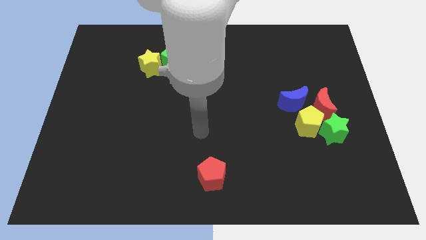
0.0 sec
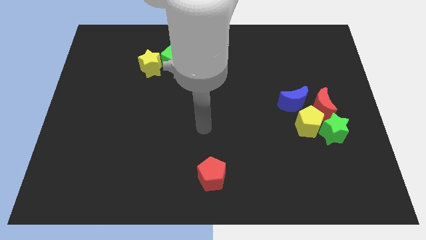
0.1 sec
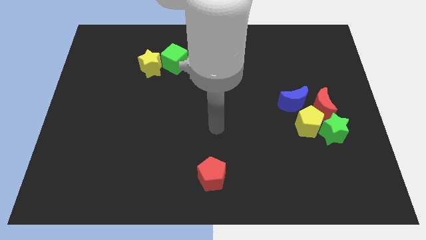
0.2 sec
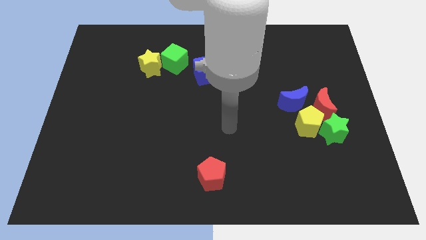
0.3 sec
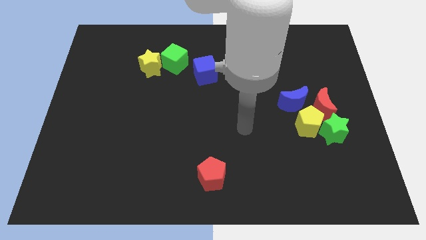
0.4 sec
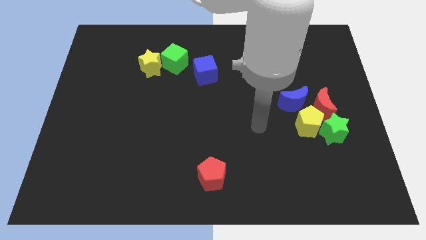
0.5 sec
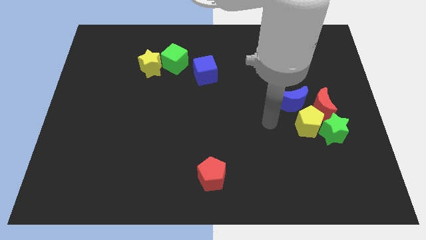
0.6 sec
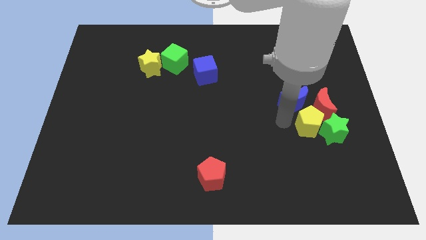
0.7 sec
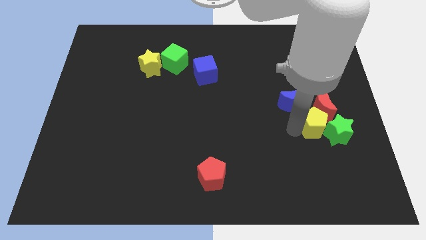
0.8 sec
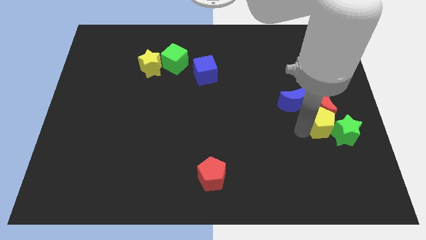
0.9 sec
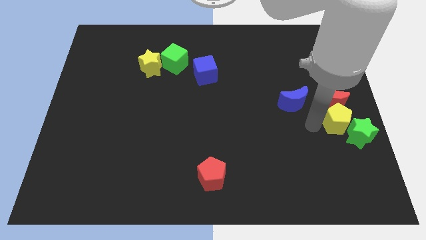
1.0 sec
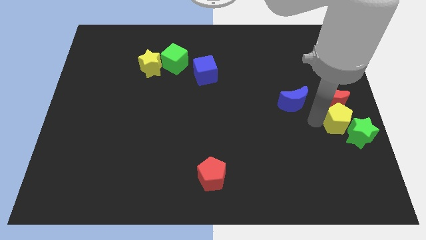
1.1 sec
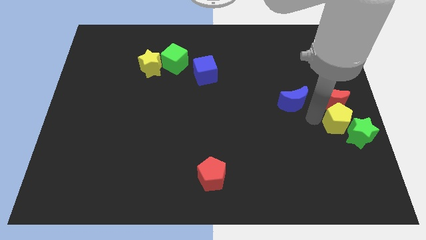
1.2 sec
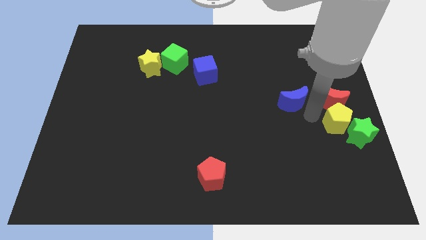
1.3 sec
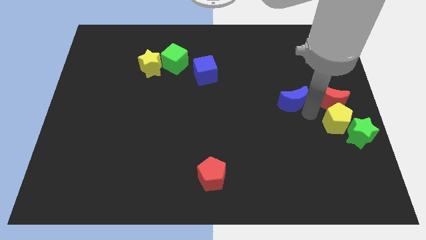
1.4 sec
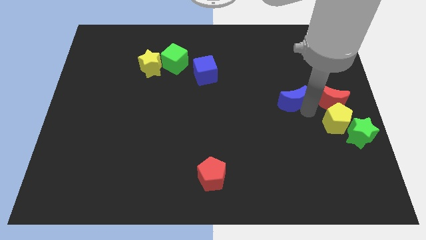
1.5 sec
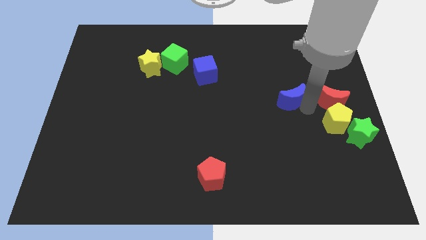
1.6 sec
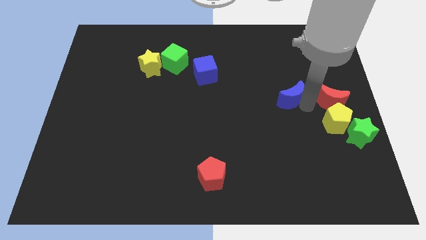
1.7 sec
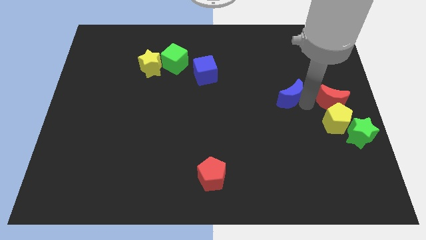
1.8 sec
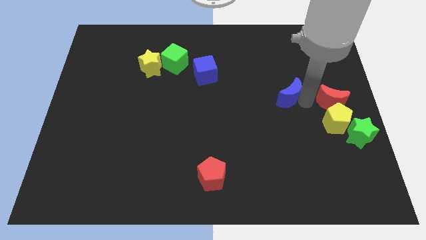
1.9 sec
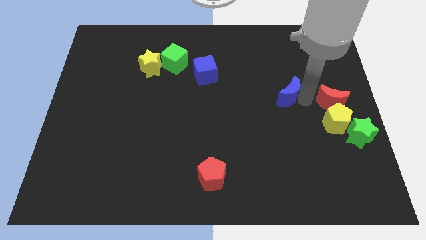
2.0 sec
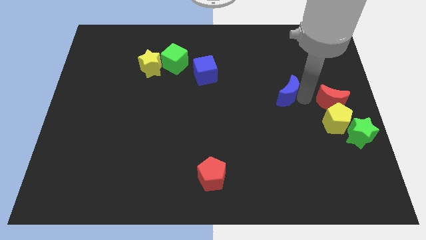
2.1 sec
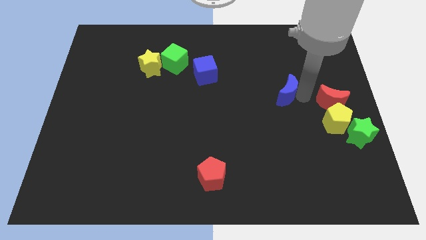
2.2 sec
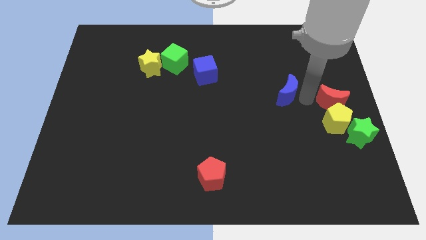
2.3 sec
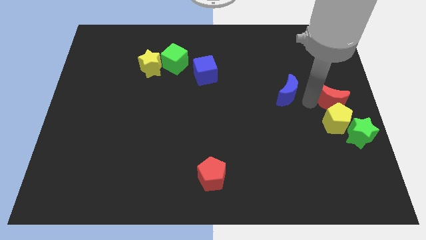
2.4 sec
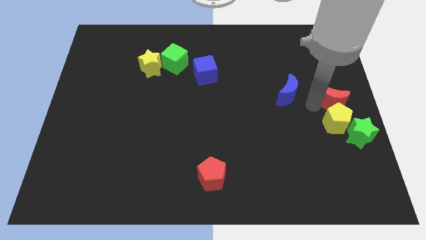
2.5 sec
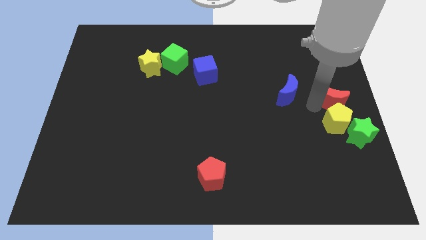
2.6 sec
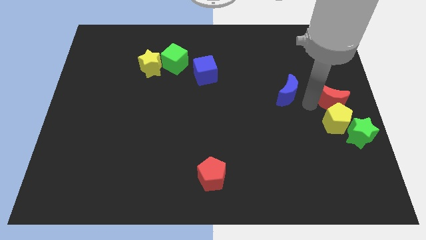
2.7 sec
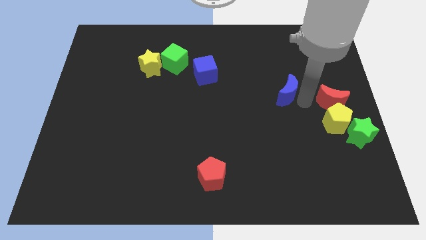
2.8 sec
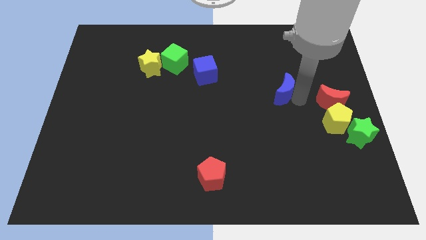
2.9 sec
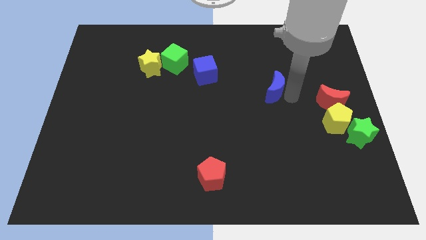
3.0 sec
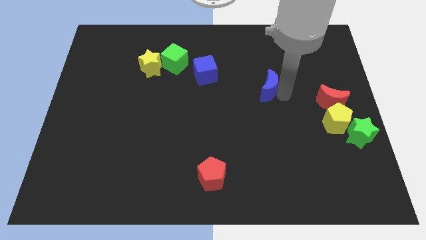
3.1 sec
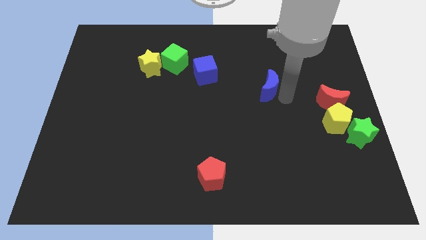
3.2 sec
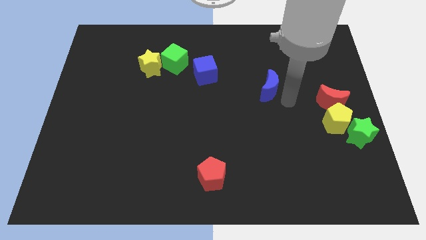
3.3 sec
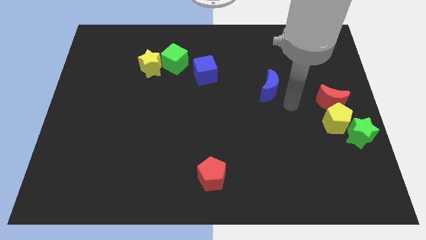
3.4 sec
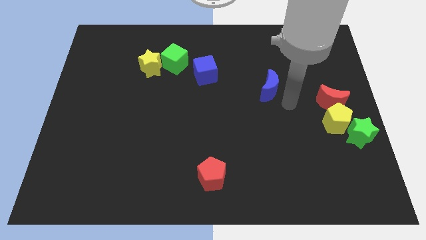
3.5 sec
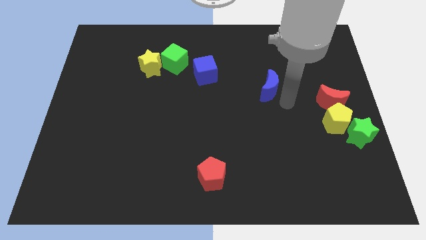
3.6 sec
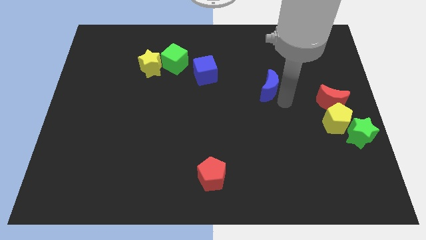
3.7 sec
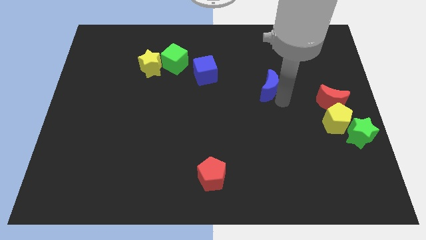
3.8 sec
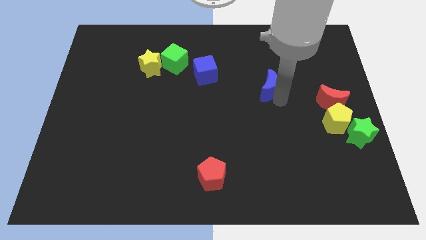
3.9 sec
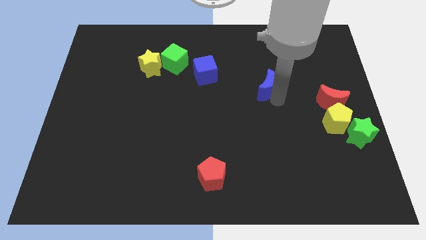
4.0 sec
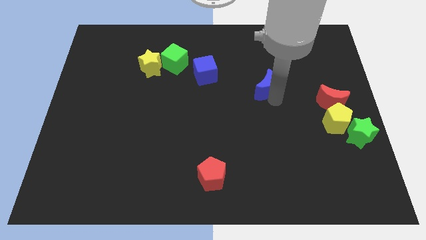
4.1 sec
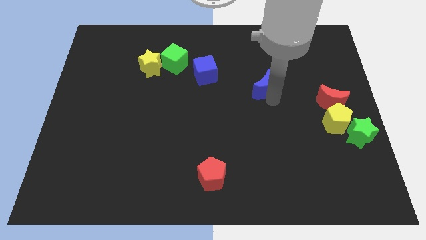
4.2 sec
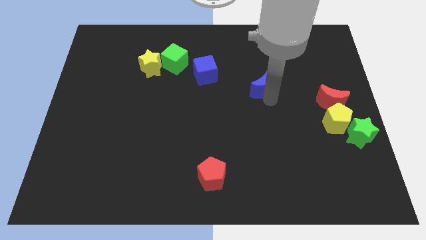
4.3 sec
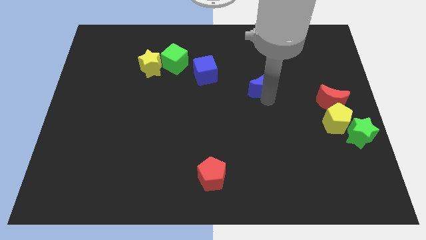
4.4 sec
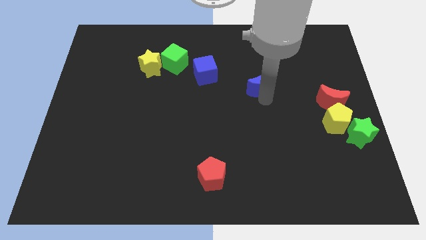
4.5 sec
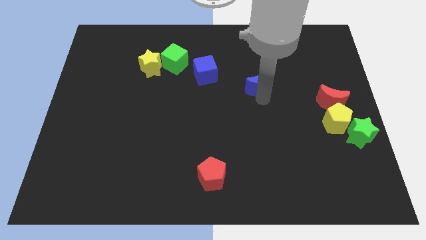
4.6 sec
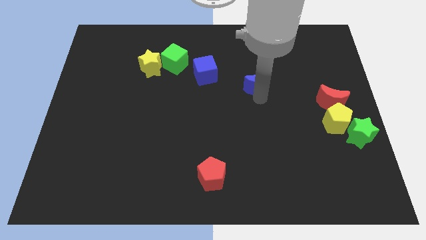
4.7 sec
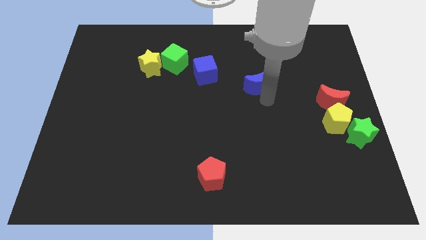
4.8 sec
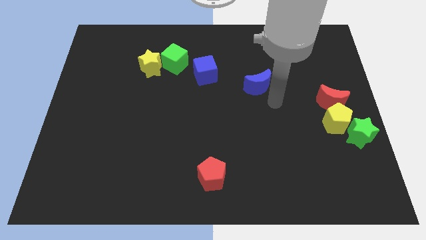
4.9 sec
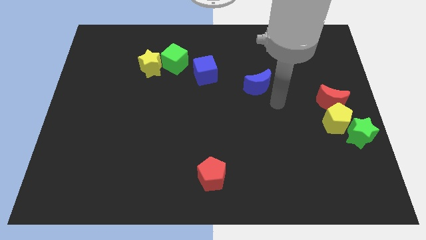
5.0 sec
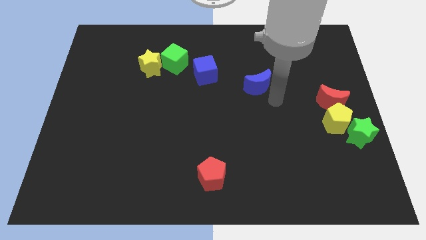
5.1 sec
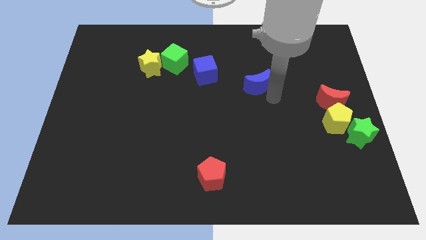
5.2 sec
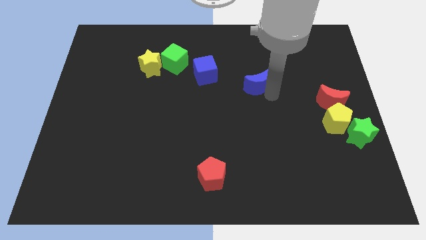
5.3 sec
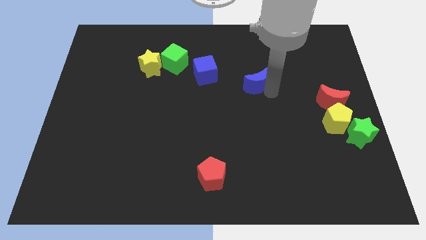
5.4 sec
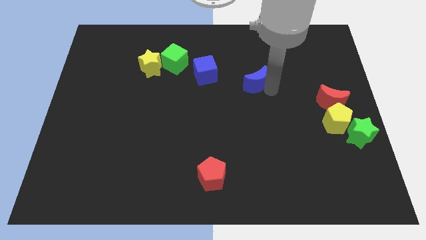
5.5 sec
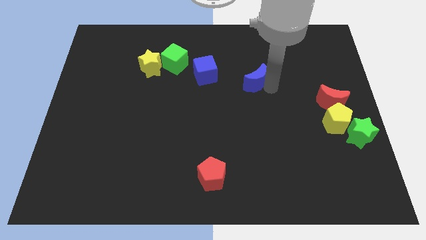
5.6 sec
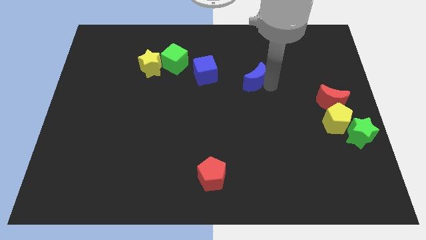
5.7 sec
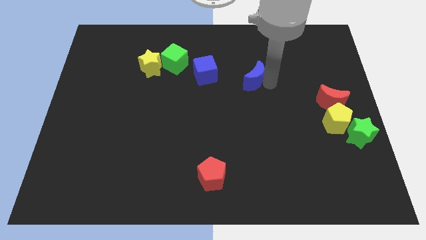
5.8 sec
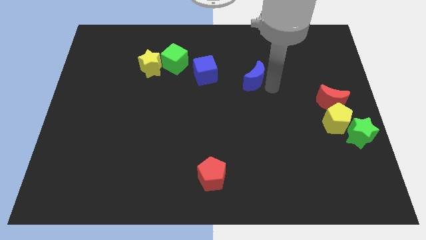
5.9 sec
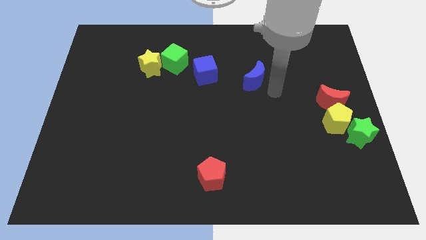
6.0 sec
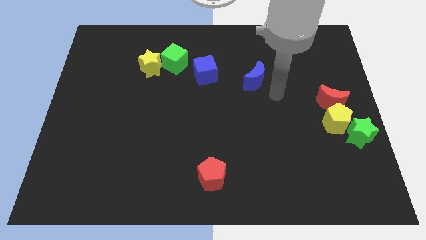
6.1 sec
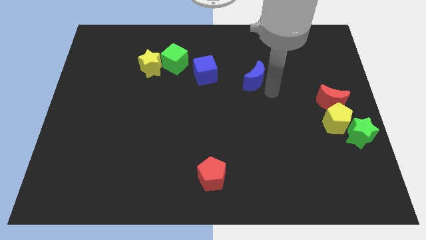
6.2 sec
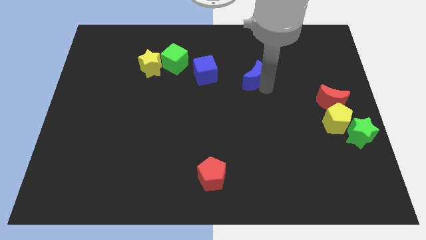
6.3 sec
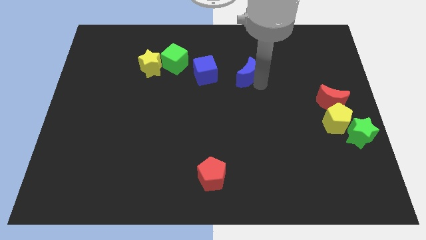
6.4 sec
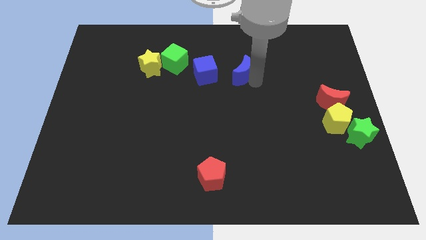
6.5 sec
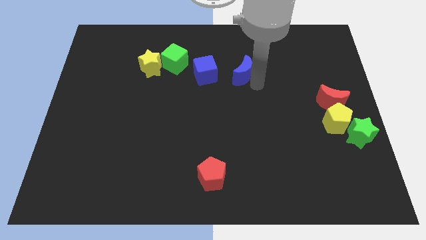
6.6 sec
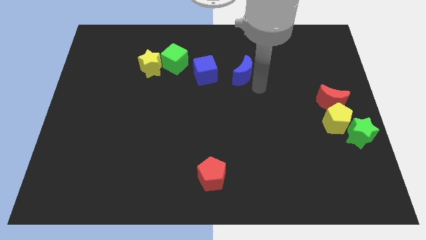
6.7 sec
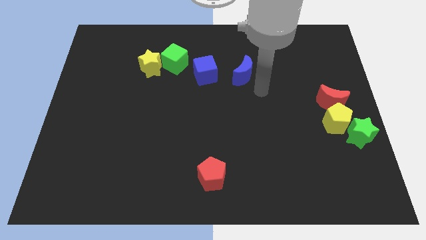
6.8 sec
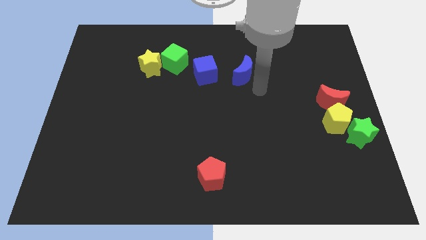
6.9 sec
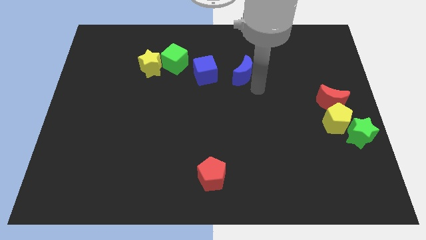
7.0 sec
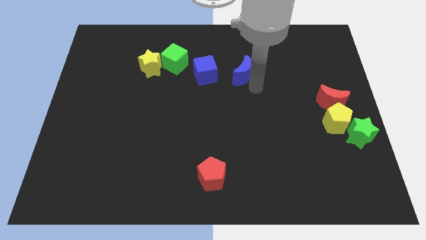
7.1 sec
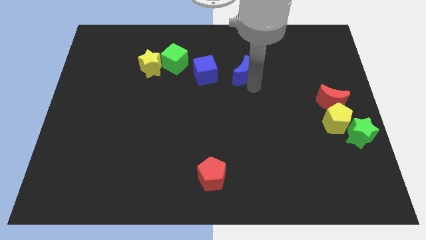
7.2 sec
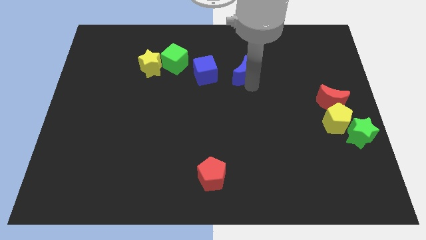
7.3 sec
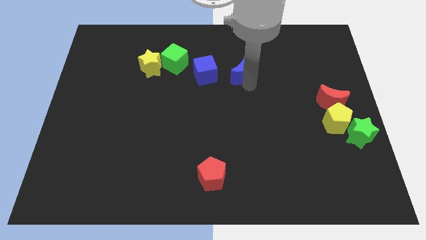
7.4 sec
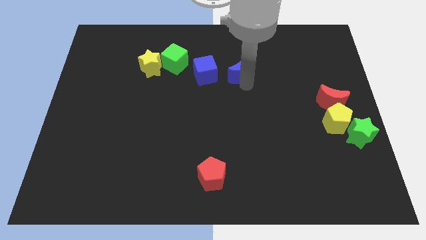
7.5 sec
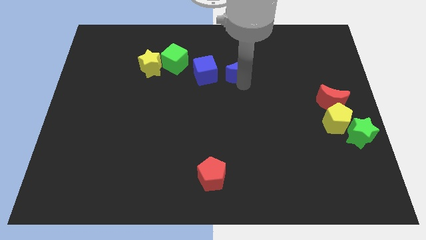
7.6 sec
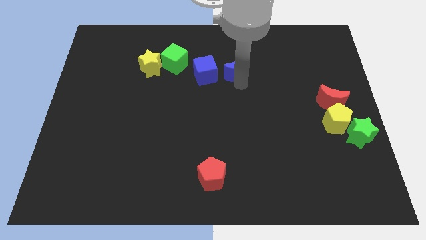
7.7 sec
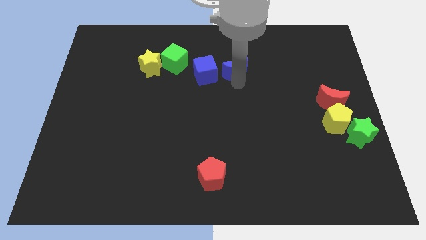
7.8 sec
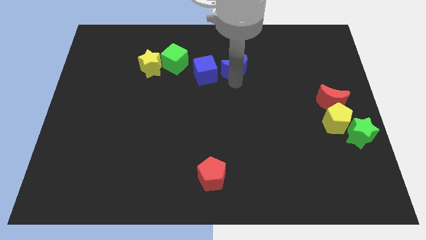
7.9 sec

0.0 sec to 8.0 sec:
slide the blue moon to the top right of the blue cube
